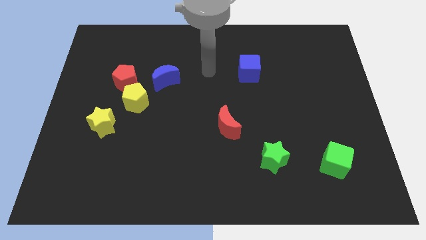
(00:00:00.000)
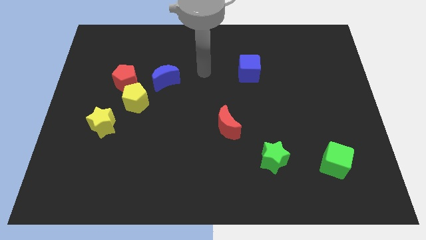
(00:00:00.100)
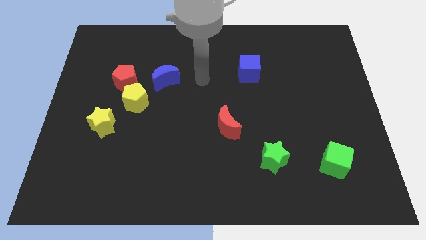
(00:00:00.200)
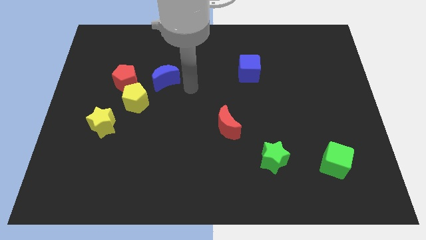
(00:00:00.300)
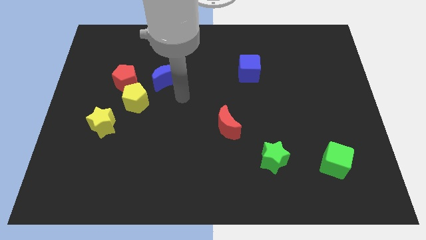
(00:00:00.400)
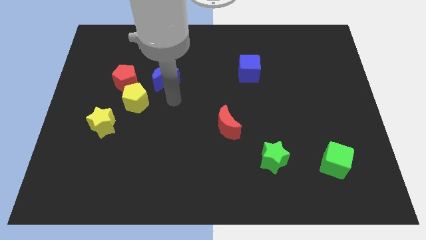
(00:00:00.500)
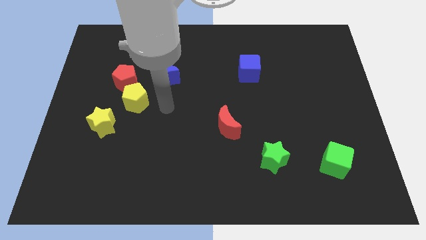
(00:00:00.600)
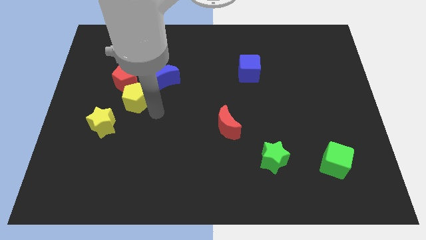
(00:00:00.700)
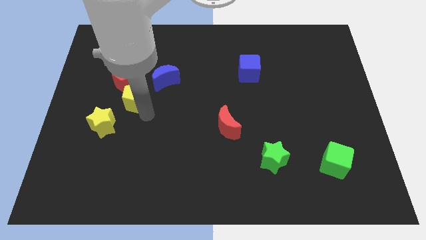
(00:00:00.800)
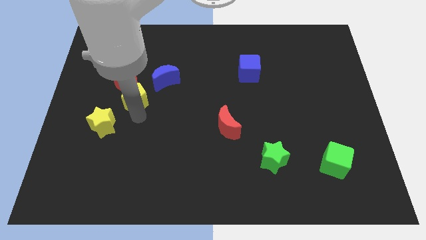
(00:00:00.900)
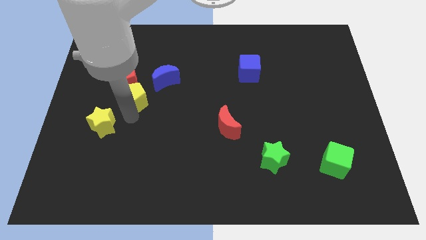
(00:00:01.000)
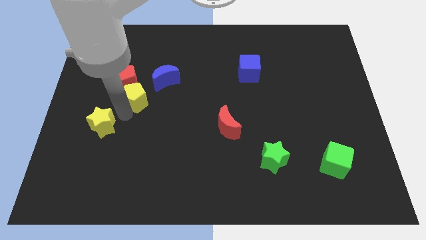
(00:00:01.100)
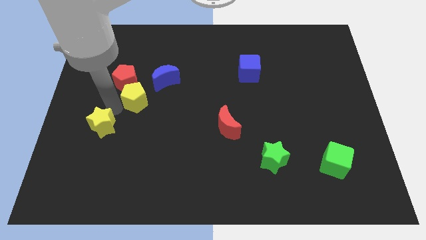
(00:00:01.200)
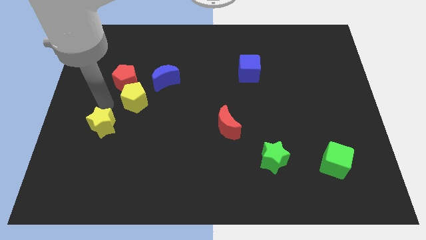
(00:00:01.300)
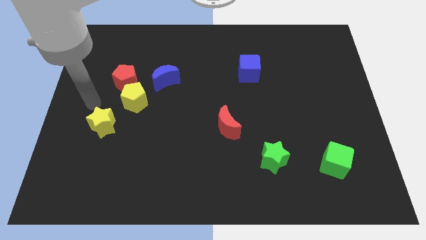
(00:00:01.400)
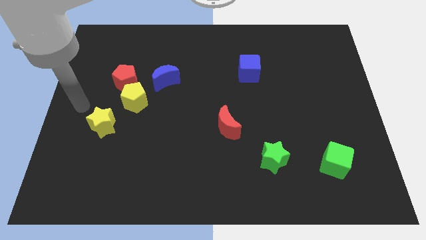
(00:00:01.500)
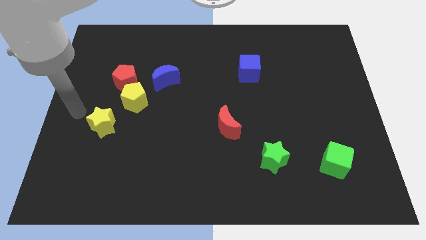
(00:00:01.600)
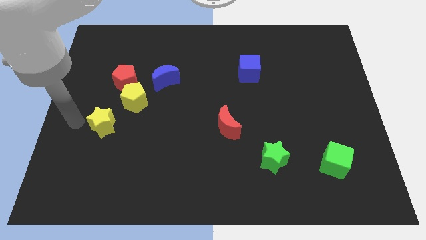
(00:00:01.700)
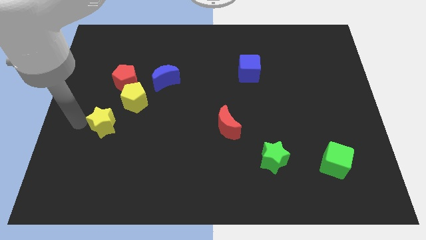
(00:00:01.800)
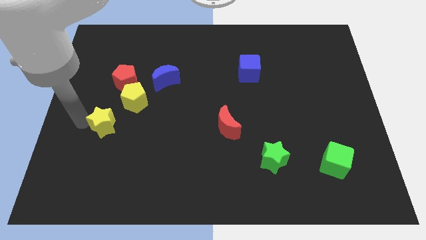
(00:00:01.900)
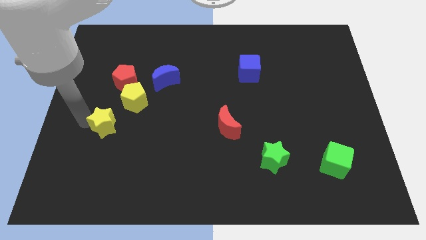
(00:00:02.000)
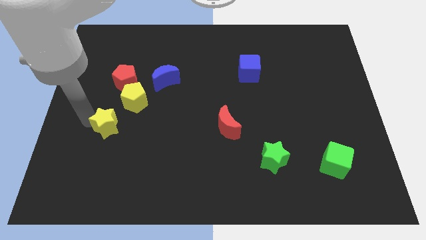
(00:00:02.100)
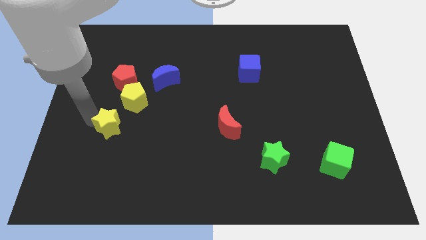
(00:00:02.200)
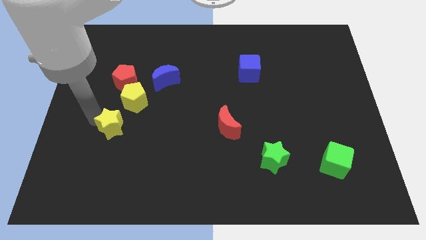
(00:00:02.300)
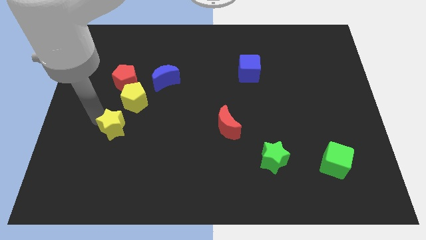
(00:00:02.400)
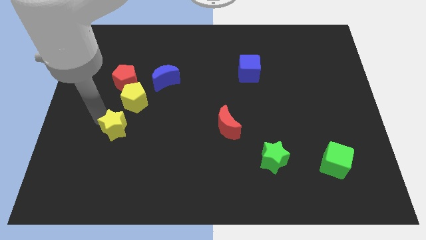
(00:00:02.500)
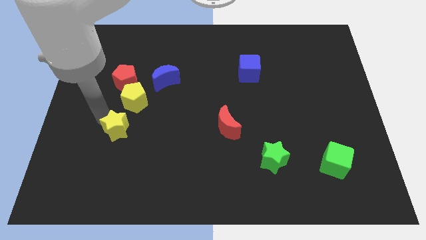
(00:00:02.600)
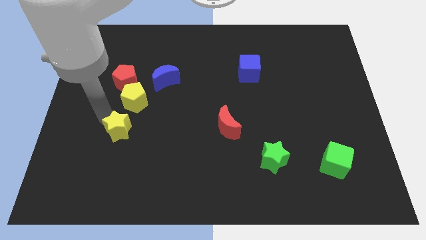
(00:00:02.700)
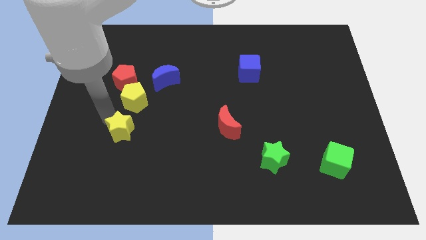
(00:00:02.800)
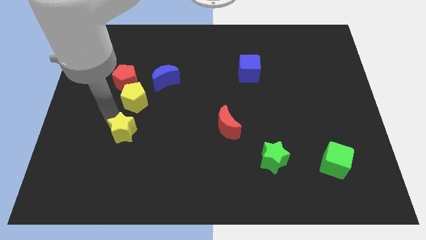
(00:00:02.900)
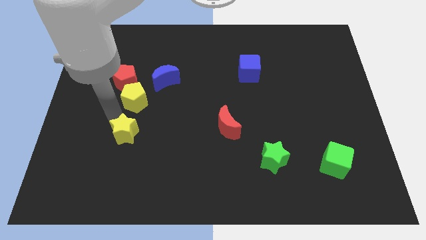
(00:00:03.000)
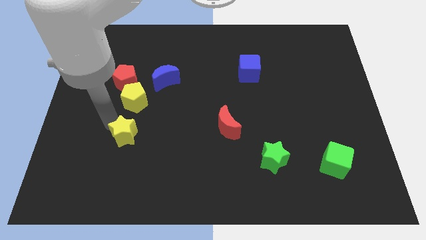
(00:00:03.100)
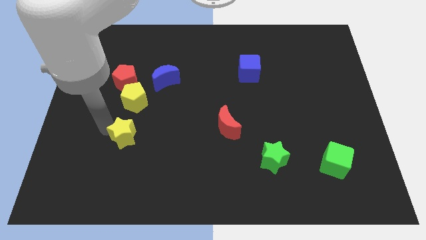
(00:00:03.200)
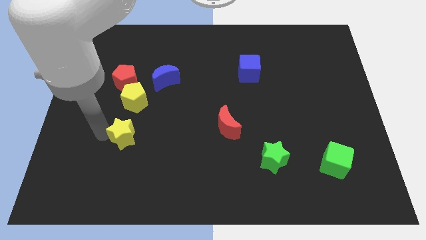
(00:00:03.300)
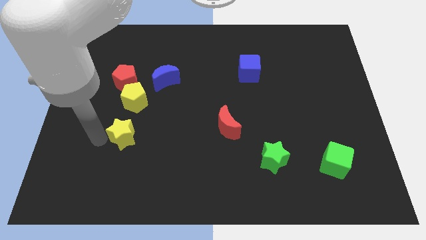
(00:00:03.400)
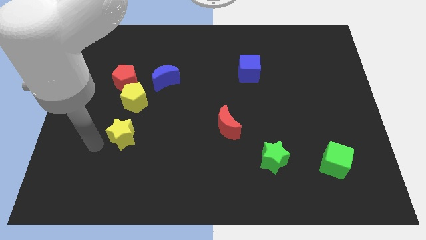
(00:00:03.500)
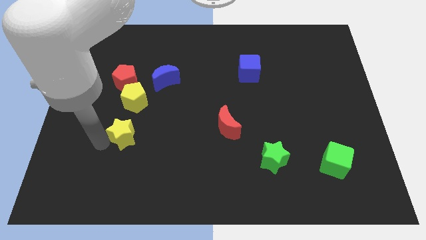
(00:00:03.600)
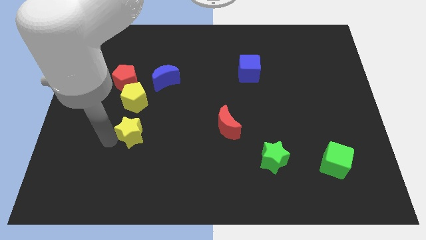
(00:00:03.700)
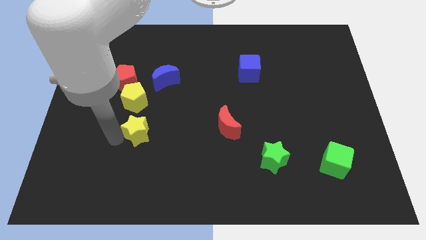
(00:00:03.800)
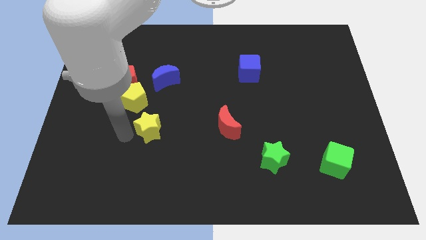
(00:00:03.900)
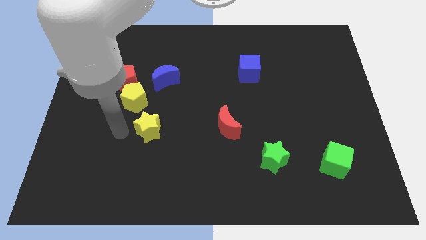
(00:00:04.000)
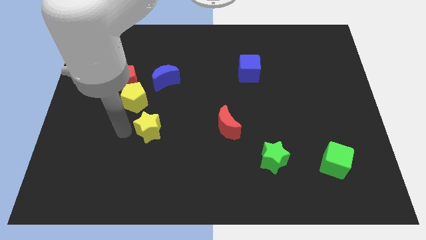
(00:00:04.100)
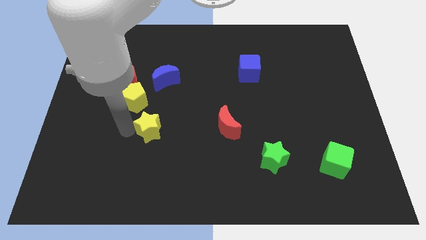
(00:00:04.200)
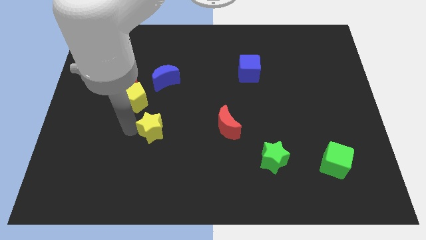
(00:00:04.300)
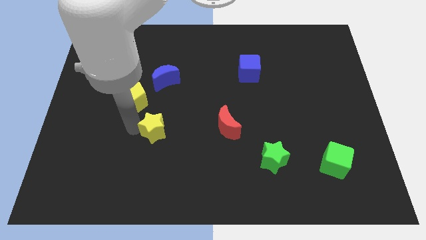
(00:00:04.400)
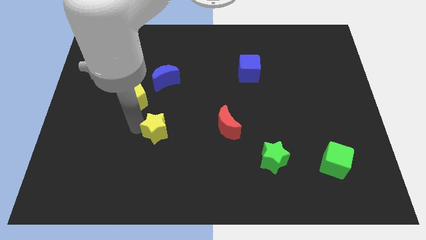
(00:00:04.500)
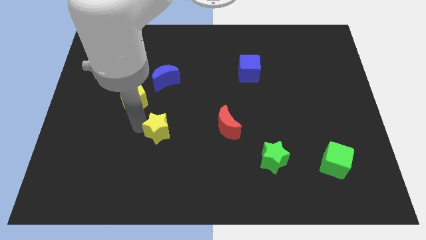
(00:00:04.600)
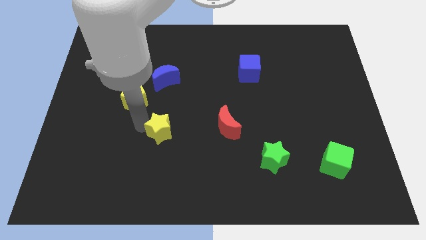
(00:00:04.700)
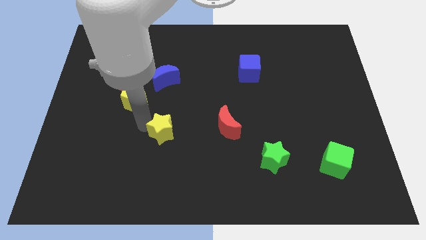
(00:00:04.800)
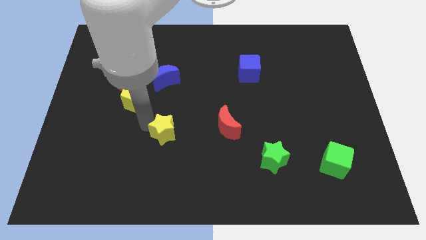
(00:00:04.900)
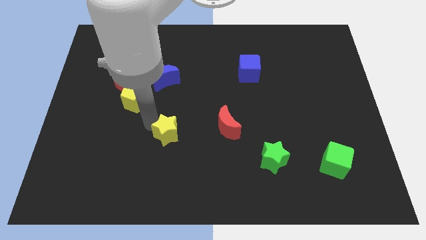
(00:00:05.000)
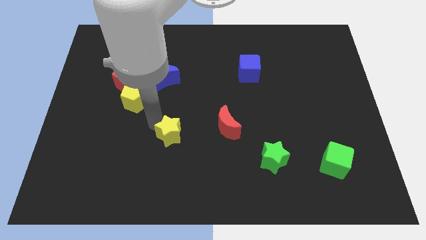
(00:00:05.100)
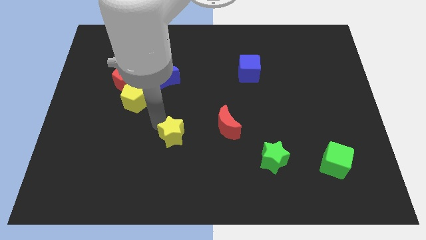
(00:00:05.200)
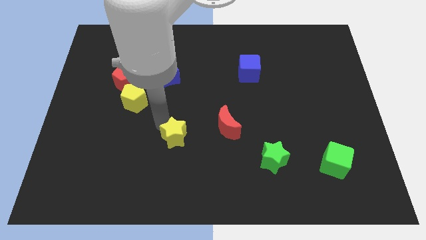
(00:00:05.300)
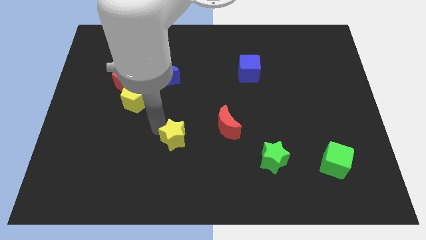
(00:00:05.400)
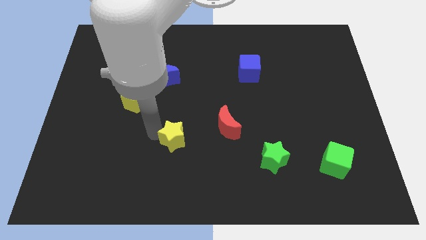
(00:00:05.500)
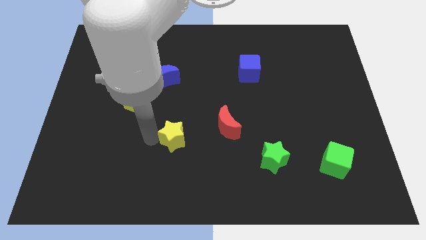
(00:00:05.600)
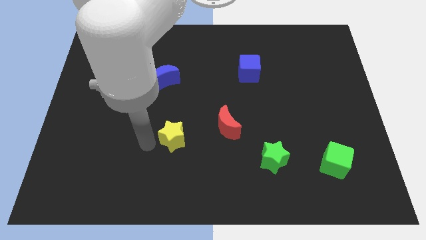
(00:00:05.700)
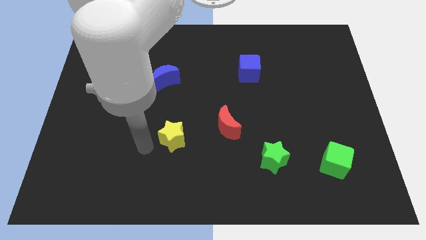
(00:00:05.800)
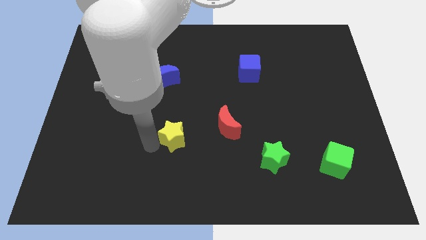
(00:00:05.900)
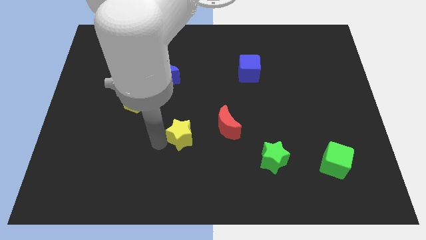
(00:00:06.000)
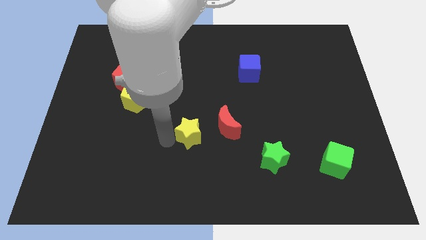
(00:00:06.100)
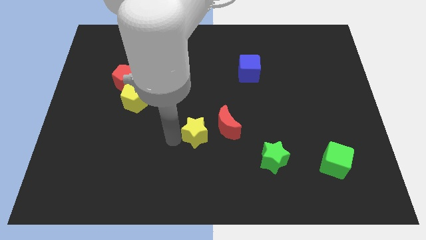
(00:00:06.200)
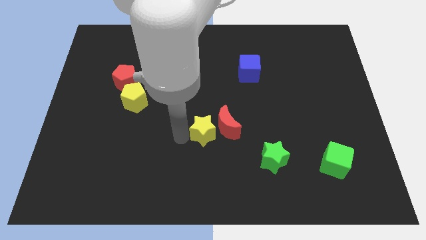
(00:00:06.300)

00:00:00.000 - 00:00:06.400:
push the yellow star close to the red moon

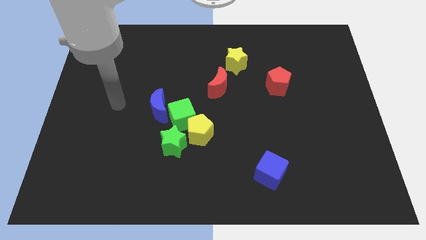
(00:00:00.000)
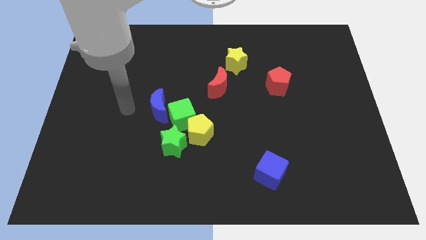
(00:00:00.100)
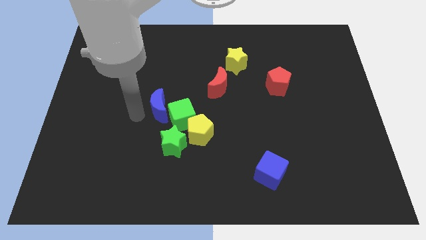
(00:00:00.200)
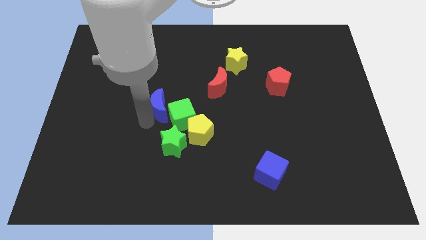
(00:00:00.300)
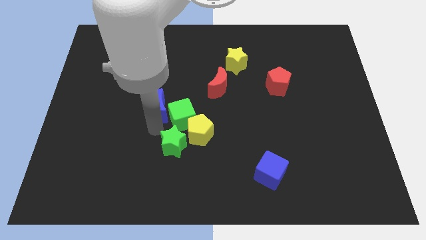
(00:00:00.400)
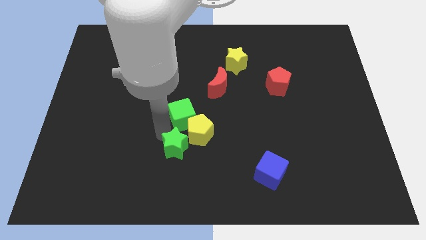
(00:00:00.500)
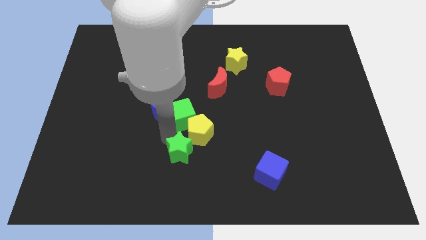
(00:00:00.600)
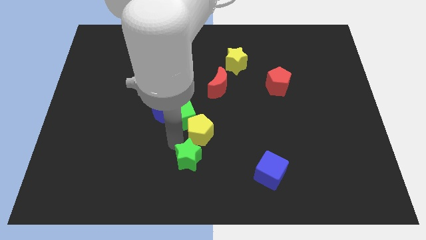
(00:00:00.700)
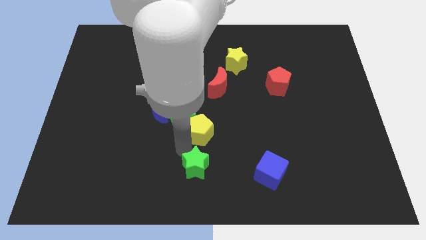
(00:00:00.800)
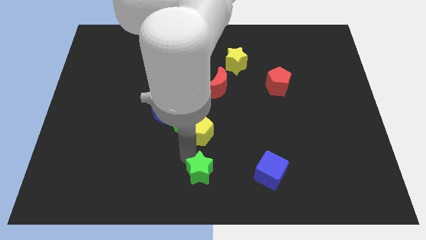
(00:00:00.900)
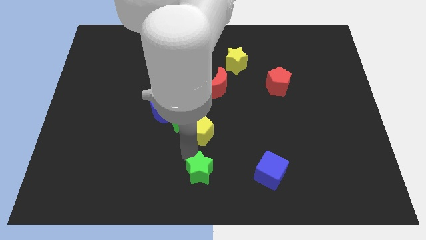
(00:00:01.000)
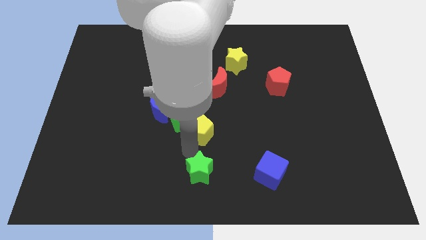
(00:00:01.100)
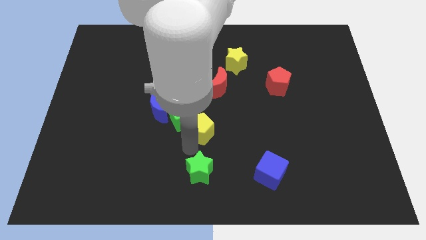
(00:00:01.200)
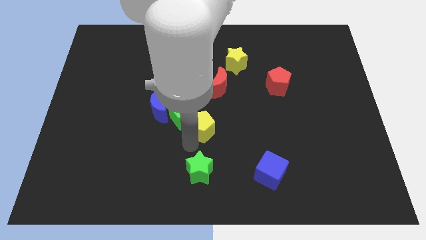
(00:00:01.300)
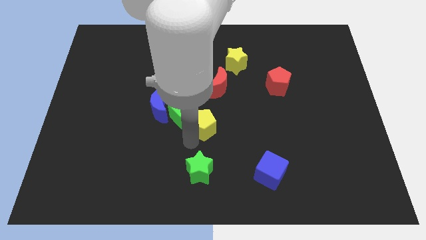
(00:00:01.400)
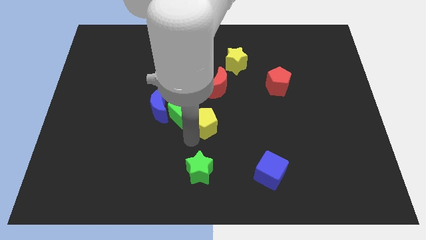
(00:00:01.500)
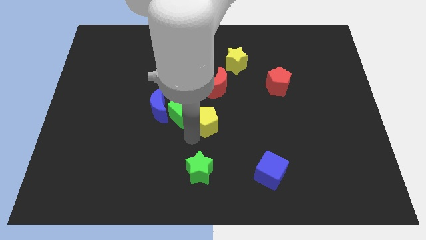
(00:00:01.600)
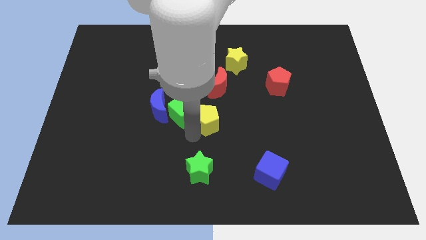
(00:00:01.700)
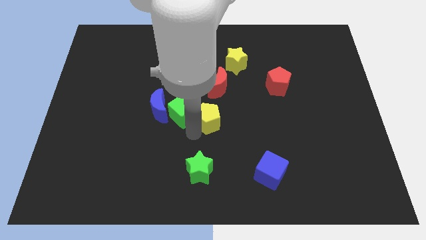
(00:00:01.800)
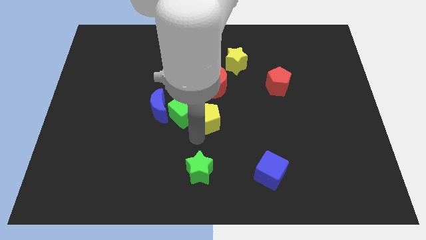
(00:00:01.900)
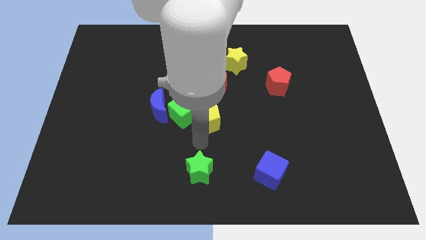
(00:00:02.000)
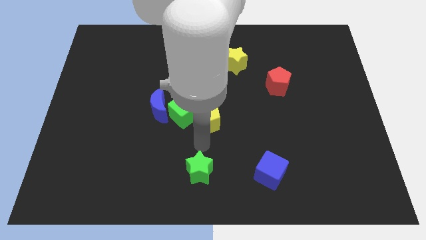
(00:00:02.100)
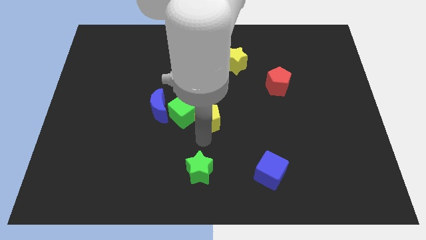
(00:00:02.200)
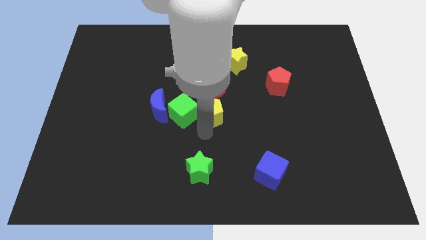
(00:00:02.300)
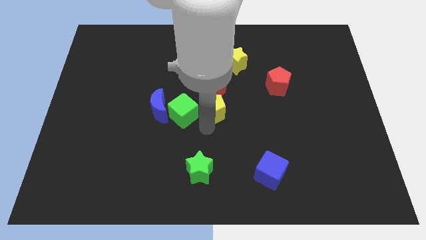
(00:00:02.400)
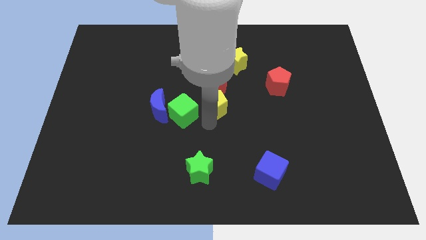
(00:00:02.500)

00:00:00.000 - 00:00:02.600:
push the yellow pentagon next to the red moon
